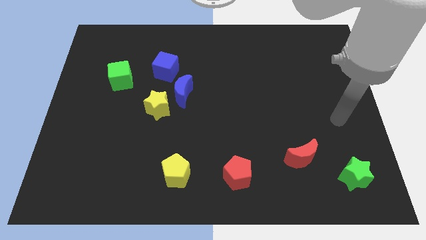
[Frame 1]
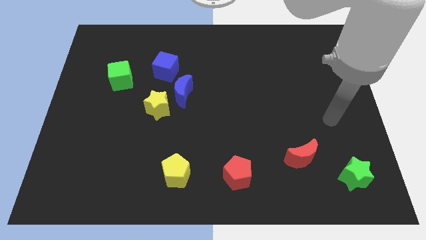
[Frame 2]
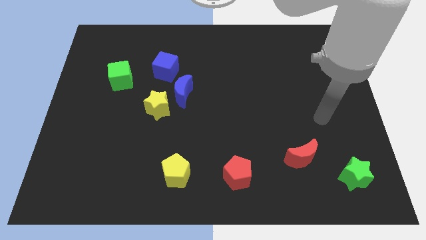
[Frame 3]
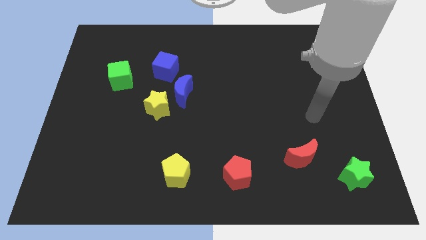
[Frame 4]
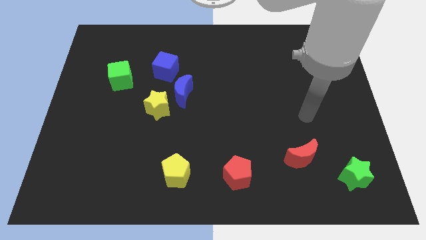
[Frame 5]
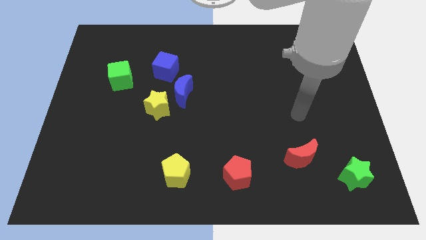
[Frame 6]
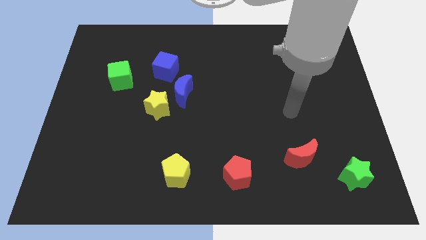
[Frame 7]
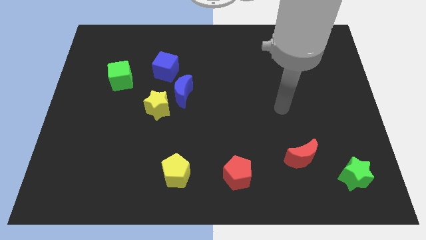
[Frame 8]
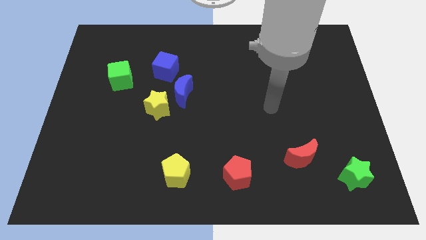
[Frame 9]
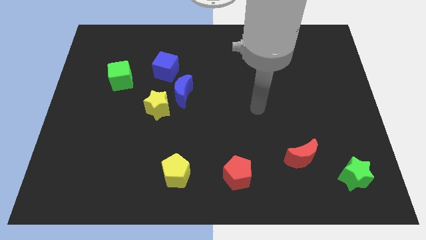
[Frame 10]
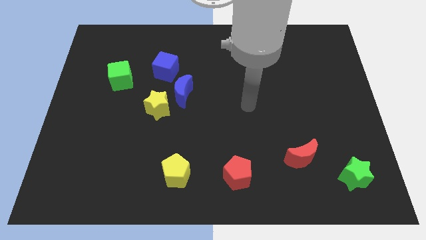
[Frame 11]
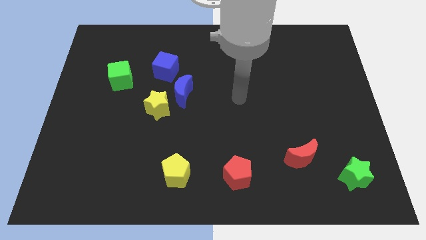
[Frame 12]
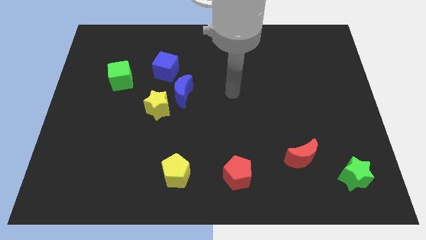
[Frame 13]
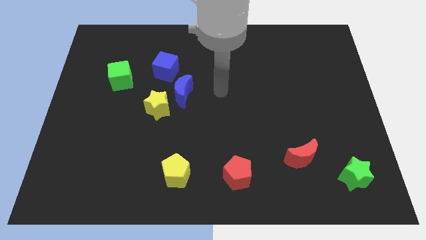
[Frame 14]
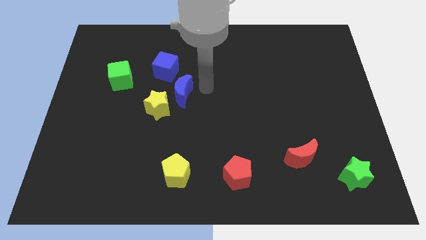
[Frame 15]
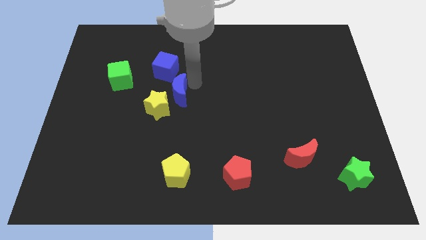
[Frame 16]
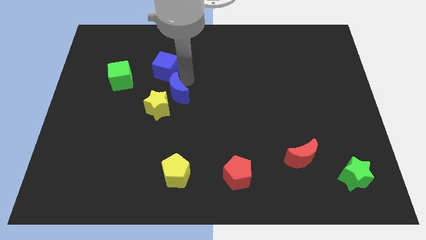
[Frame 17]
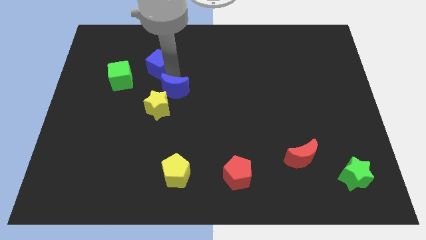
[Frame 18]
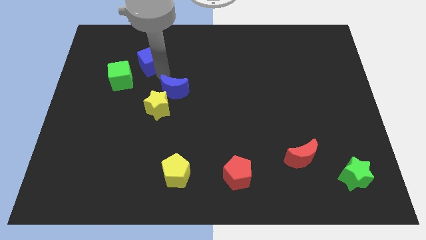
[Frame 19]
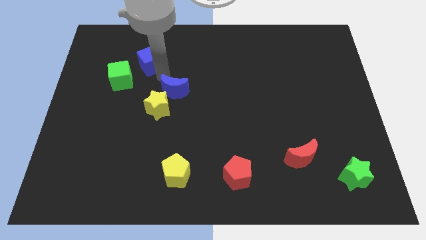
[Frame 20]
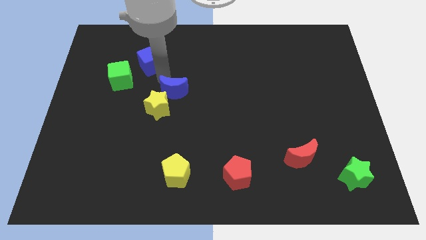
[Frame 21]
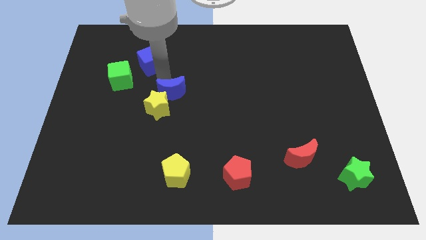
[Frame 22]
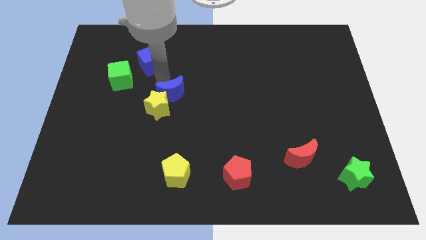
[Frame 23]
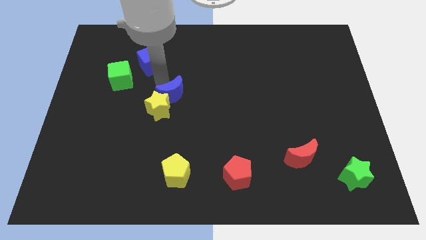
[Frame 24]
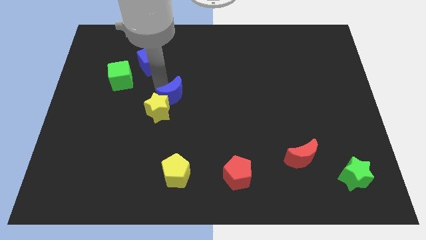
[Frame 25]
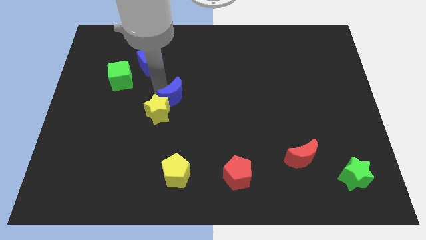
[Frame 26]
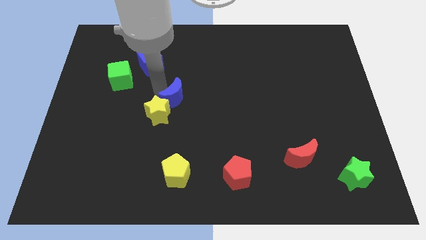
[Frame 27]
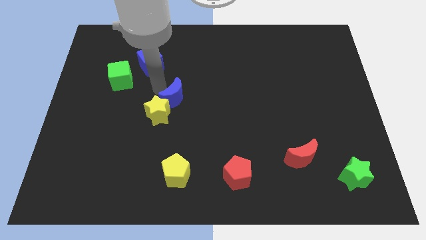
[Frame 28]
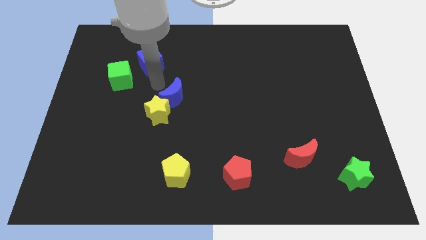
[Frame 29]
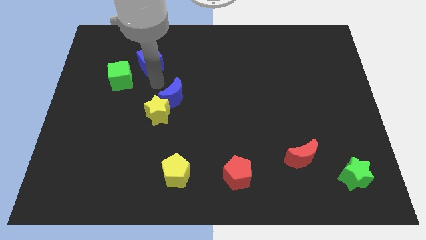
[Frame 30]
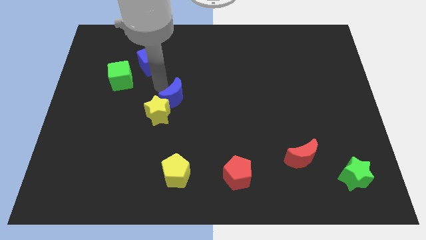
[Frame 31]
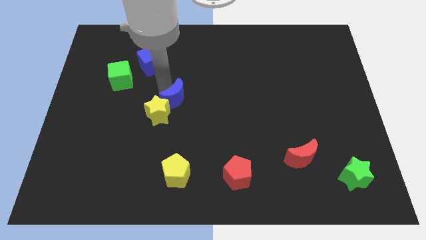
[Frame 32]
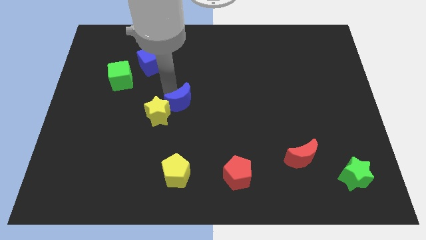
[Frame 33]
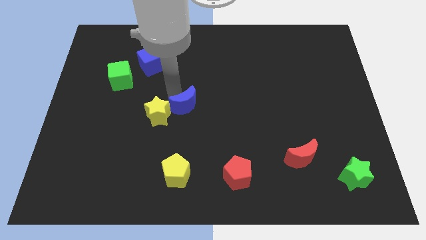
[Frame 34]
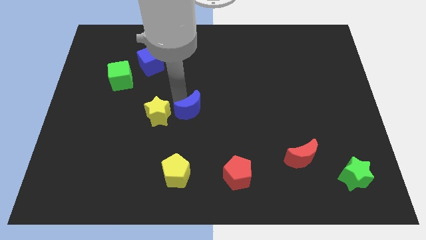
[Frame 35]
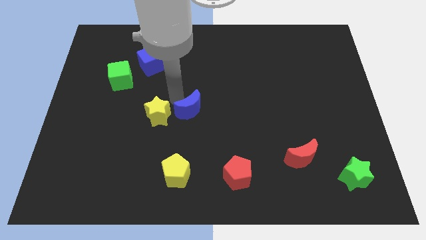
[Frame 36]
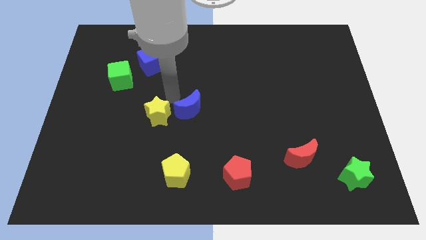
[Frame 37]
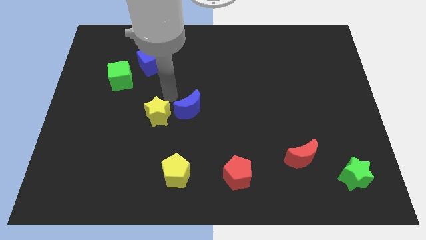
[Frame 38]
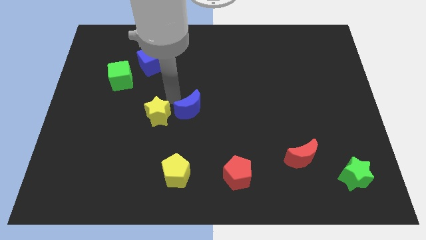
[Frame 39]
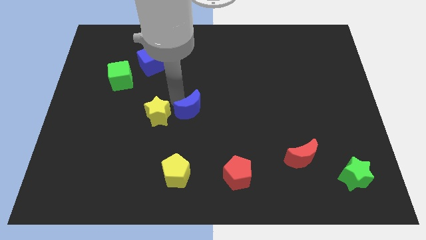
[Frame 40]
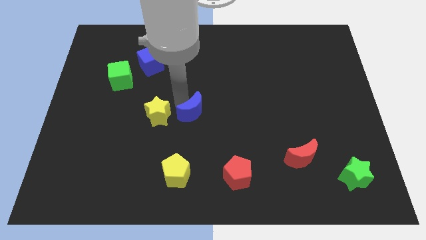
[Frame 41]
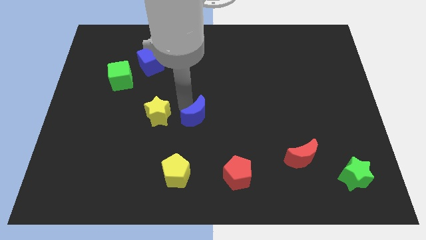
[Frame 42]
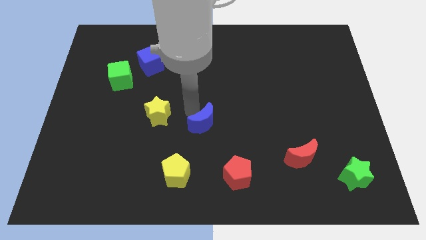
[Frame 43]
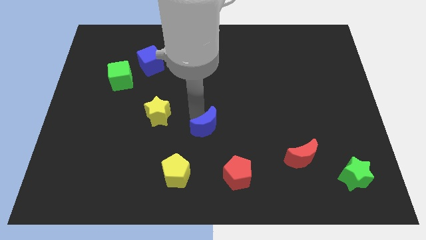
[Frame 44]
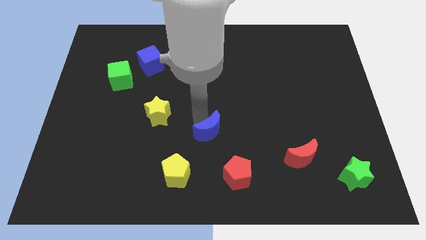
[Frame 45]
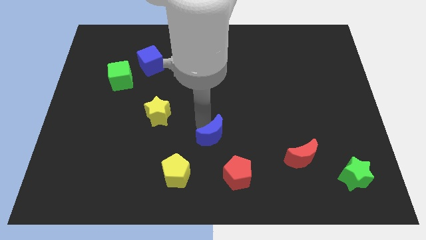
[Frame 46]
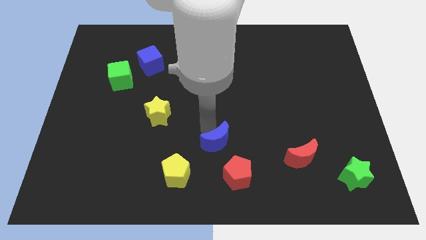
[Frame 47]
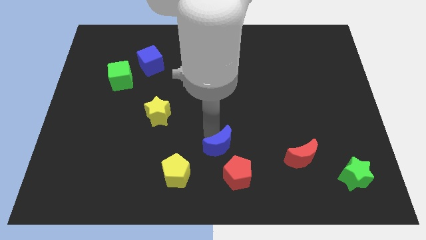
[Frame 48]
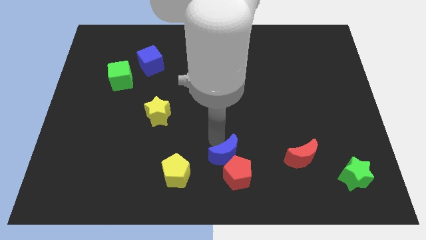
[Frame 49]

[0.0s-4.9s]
put the blue moon next to the red pentagon

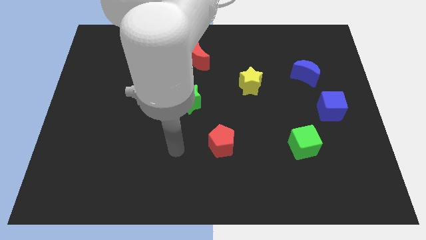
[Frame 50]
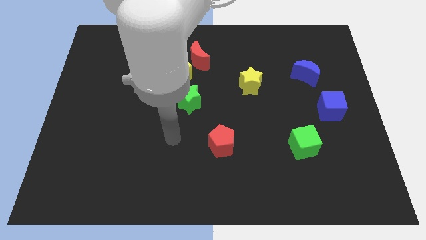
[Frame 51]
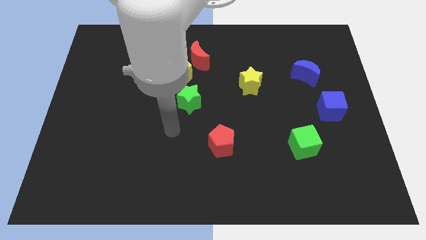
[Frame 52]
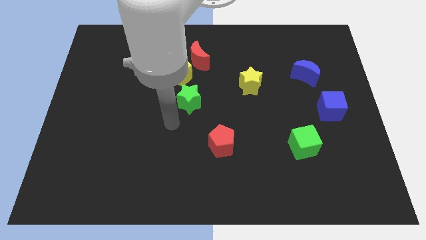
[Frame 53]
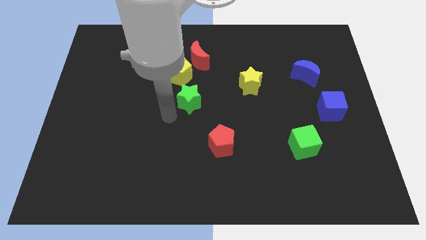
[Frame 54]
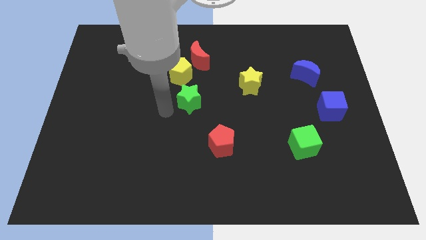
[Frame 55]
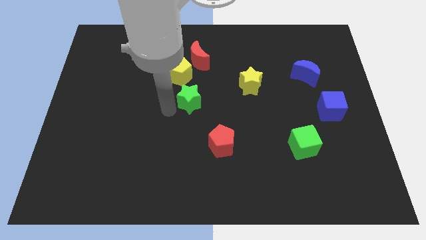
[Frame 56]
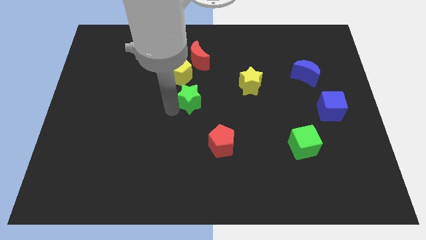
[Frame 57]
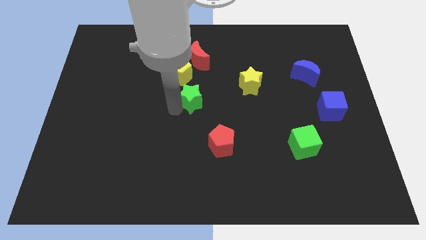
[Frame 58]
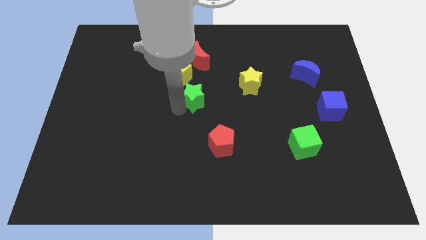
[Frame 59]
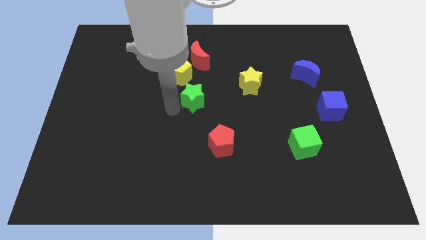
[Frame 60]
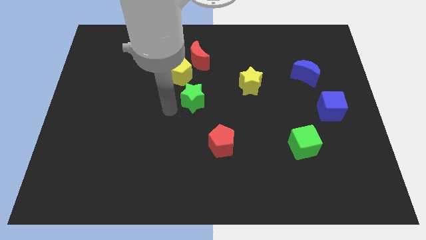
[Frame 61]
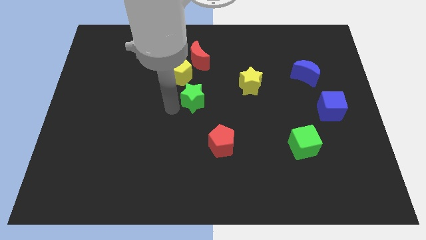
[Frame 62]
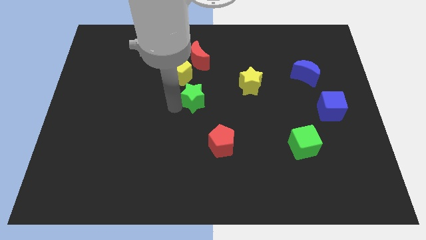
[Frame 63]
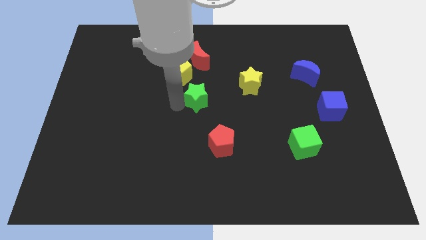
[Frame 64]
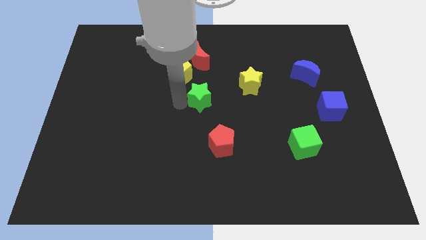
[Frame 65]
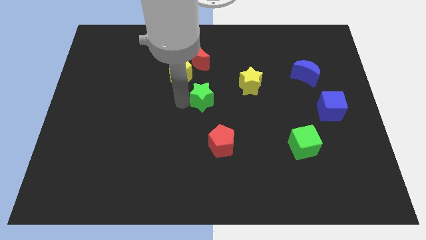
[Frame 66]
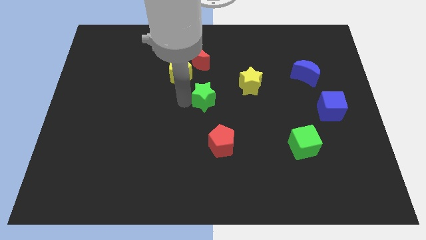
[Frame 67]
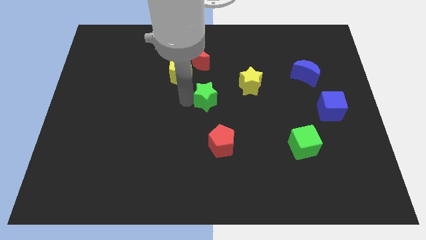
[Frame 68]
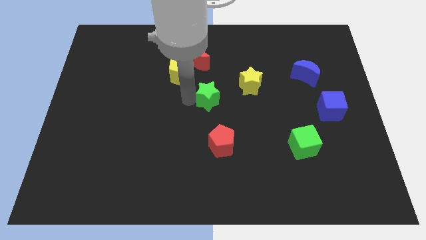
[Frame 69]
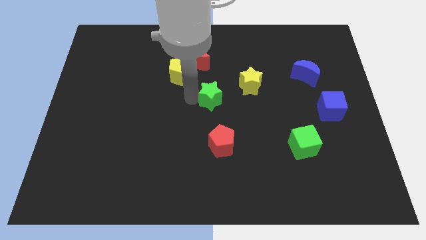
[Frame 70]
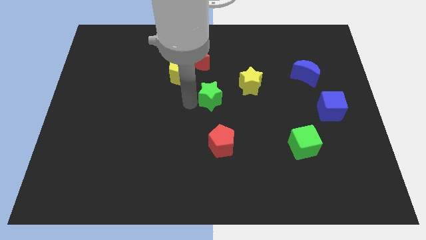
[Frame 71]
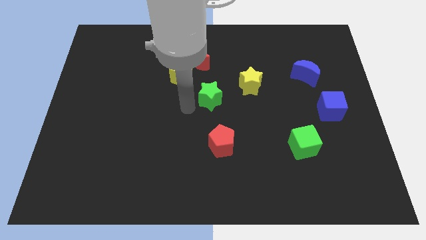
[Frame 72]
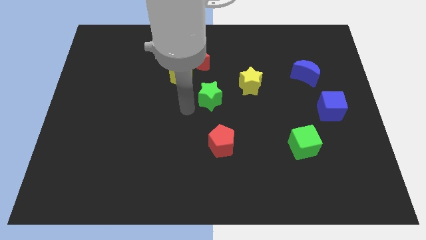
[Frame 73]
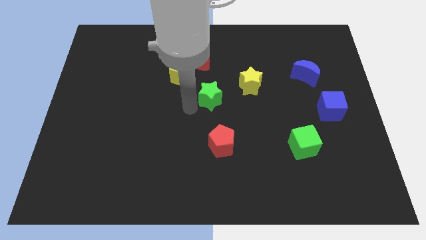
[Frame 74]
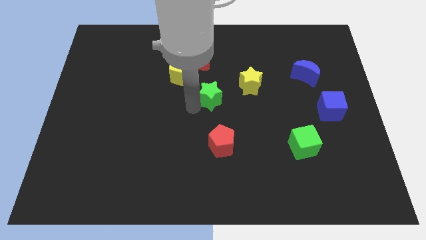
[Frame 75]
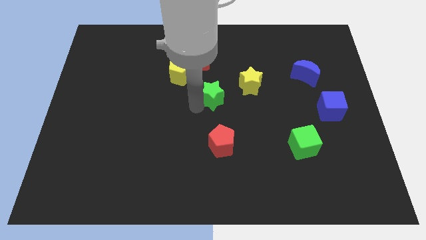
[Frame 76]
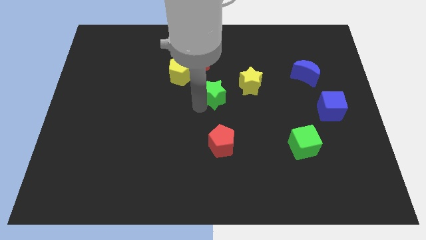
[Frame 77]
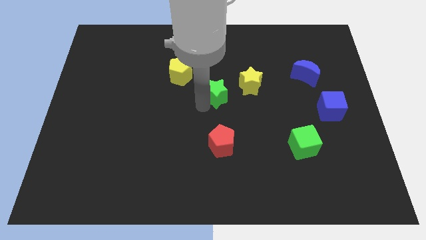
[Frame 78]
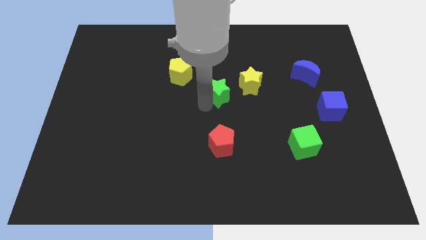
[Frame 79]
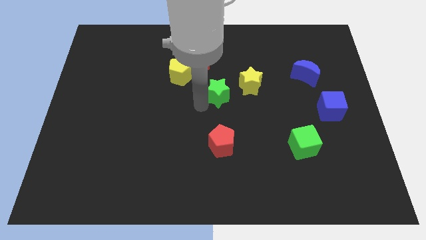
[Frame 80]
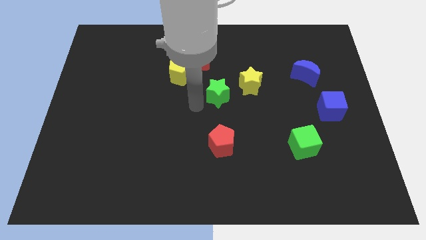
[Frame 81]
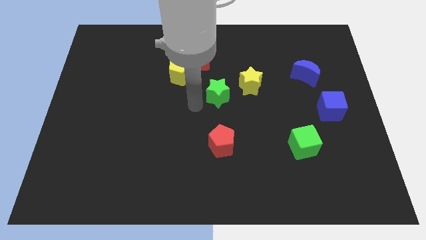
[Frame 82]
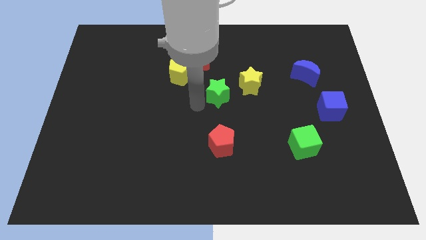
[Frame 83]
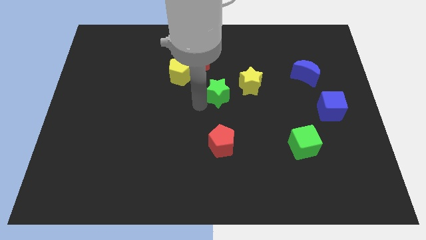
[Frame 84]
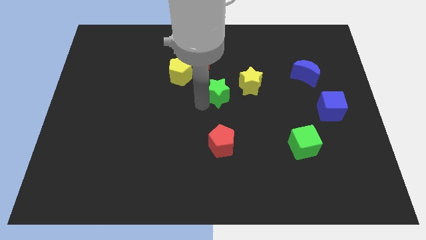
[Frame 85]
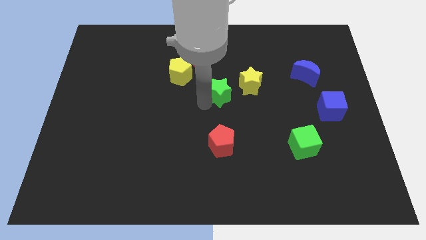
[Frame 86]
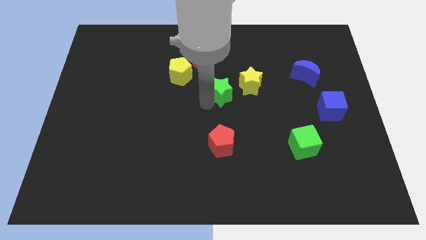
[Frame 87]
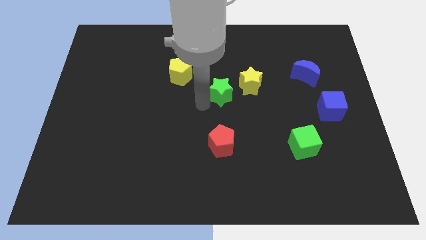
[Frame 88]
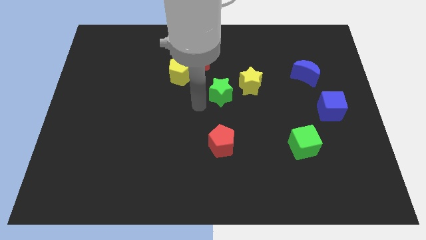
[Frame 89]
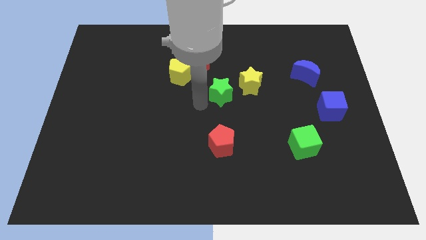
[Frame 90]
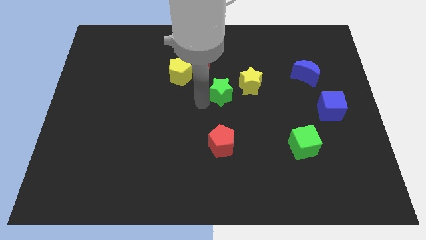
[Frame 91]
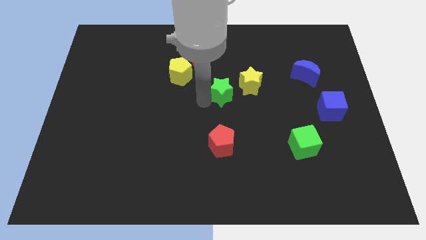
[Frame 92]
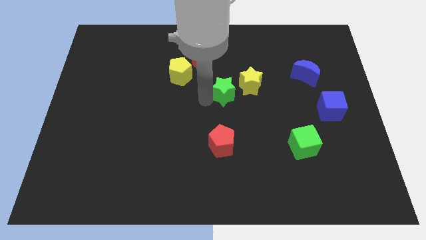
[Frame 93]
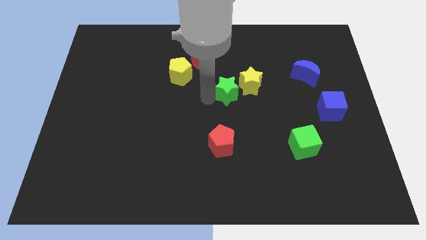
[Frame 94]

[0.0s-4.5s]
slide the green star to the yellow star
